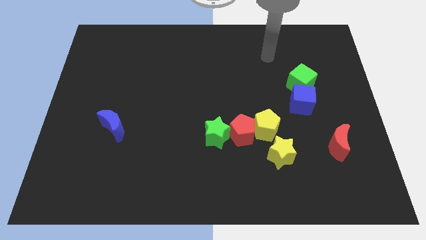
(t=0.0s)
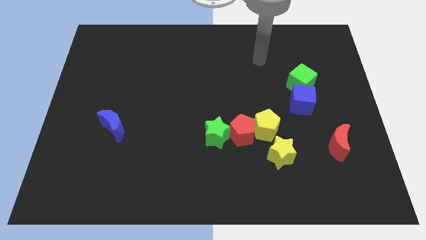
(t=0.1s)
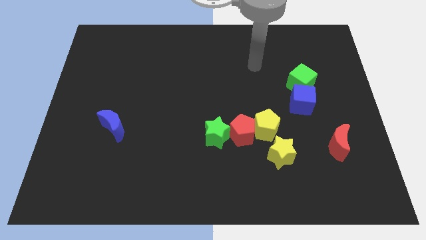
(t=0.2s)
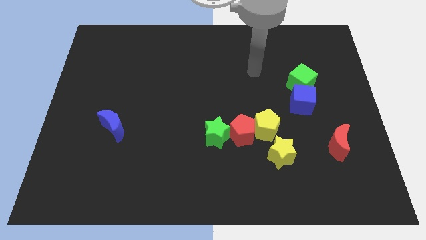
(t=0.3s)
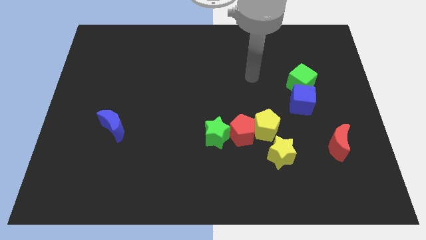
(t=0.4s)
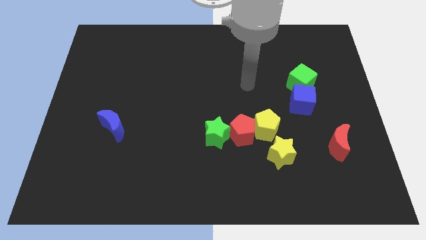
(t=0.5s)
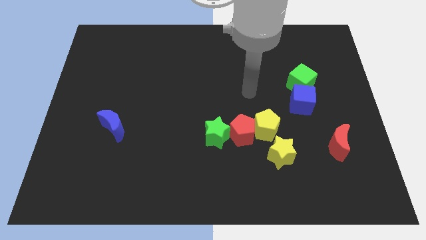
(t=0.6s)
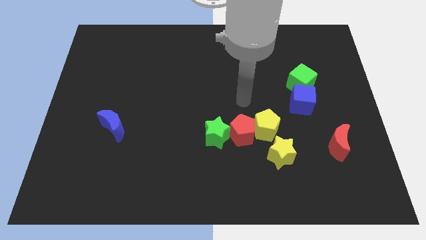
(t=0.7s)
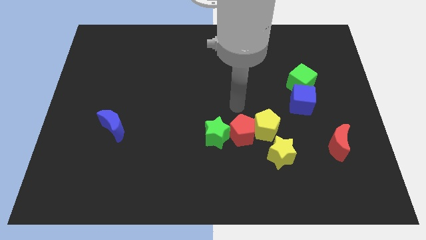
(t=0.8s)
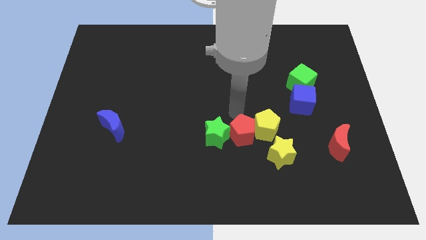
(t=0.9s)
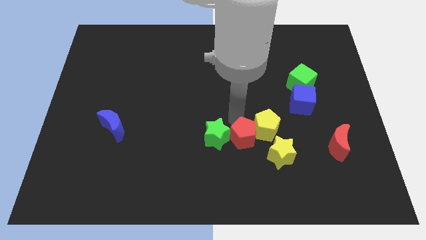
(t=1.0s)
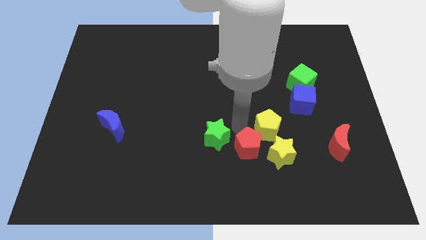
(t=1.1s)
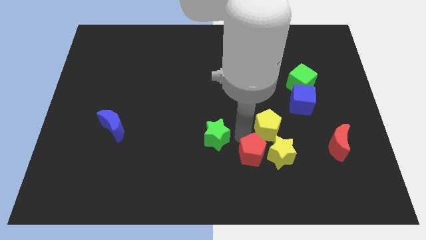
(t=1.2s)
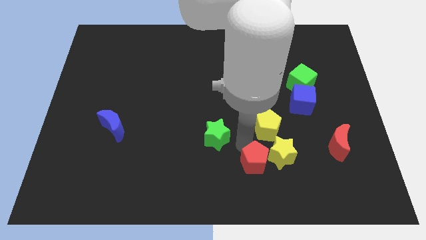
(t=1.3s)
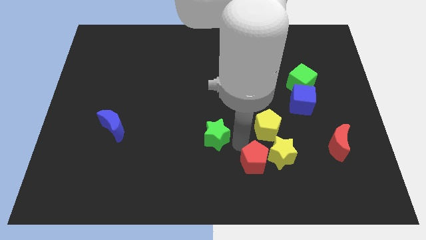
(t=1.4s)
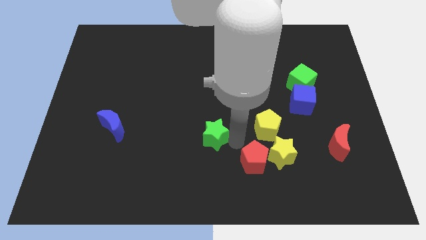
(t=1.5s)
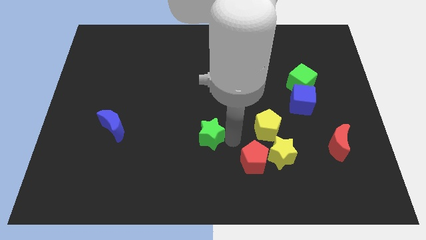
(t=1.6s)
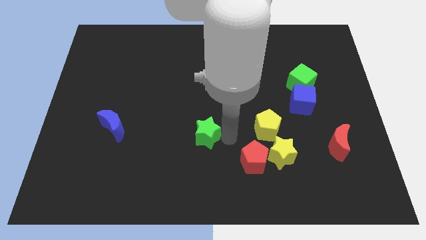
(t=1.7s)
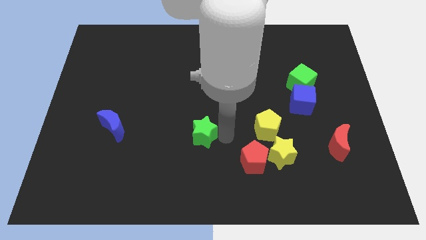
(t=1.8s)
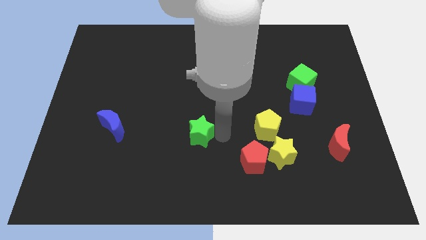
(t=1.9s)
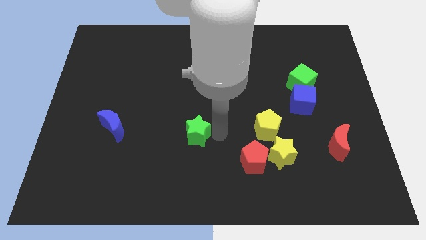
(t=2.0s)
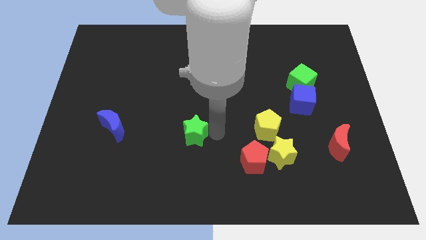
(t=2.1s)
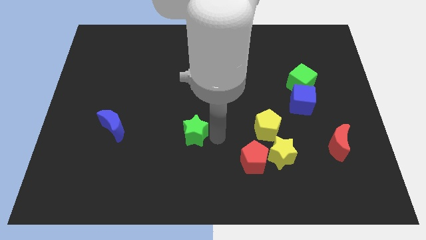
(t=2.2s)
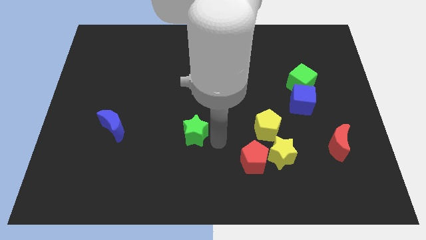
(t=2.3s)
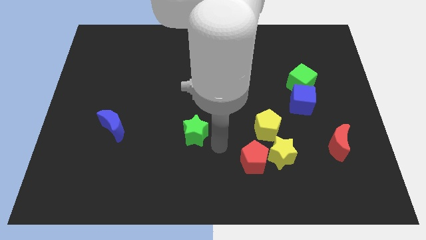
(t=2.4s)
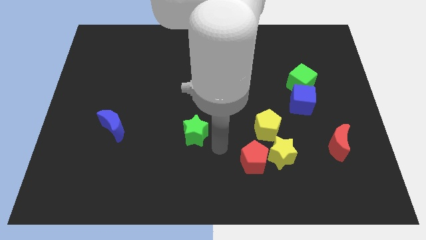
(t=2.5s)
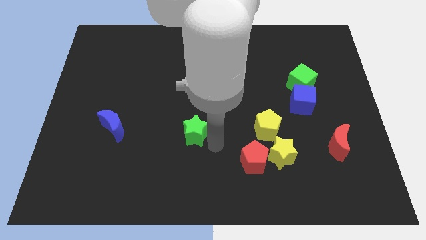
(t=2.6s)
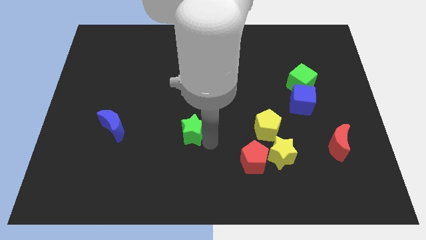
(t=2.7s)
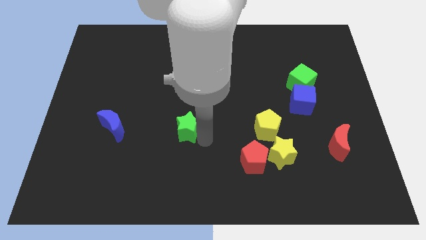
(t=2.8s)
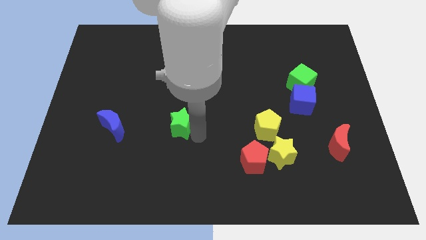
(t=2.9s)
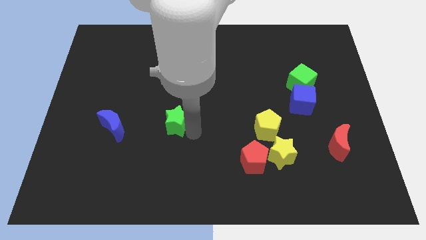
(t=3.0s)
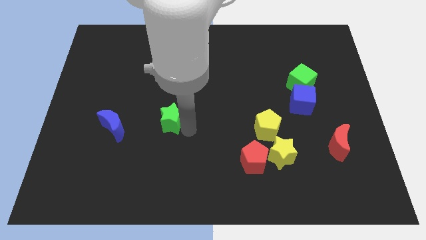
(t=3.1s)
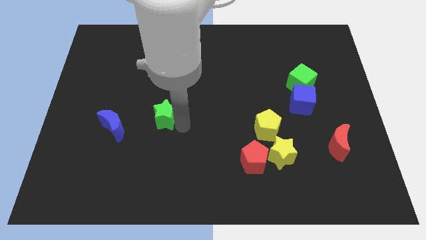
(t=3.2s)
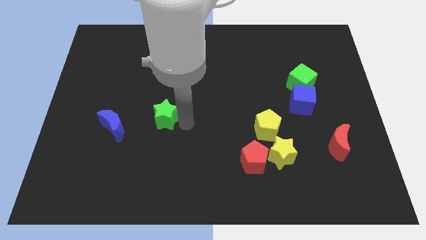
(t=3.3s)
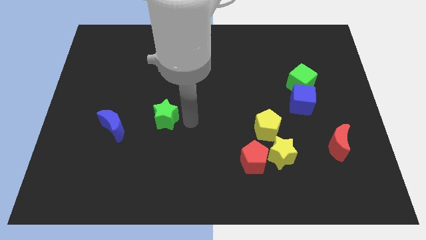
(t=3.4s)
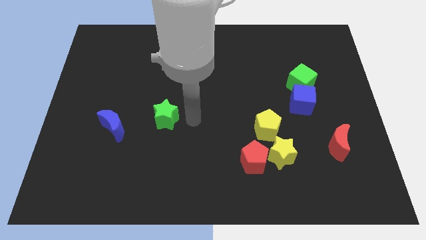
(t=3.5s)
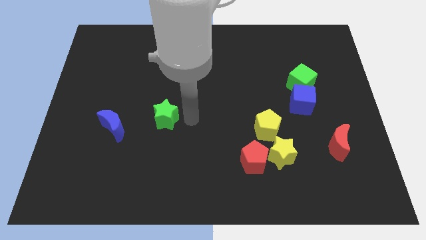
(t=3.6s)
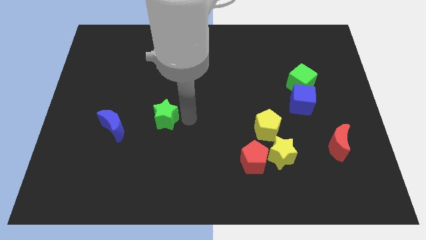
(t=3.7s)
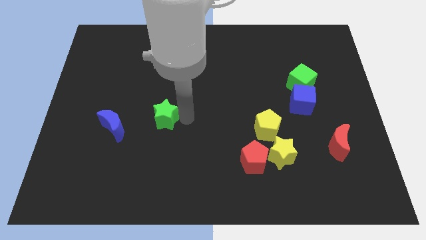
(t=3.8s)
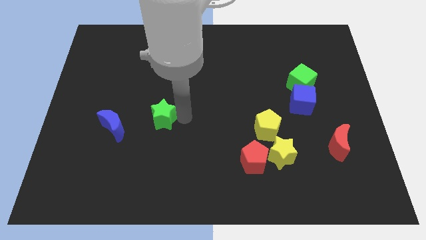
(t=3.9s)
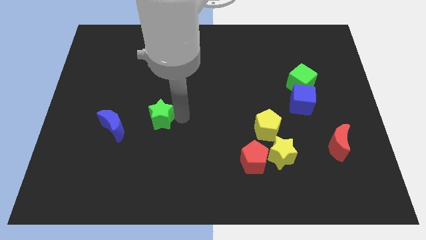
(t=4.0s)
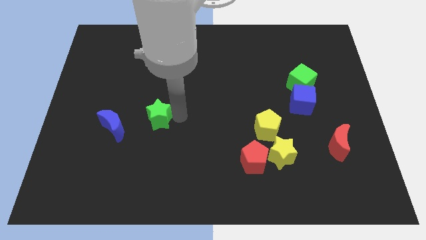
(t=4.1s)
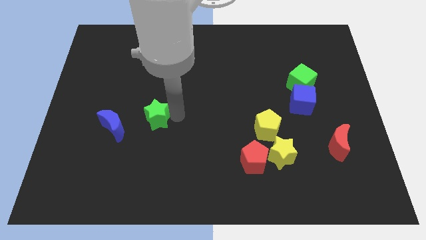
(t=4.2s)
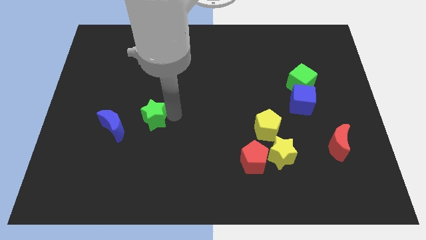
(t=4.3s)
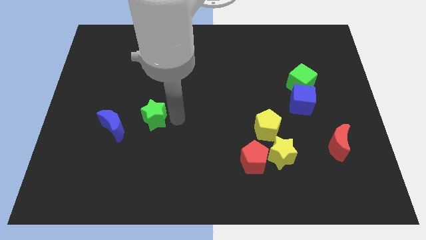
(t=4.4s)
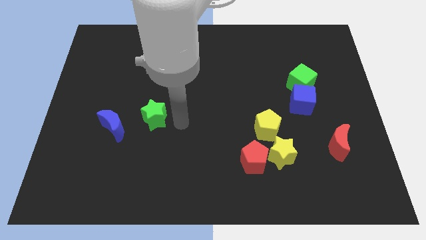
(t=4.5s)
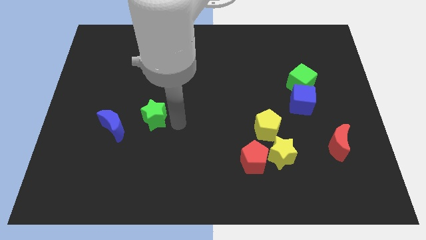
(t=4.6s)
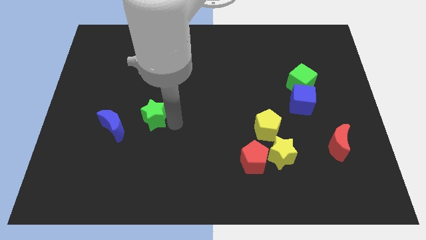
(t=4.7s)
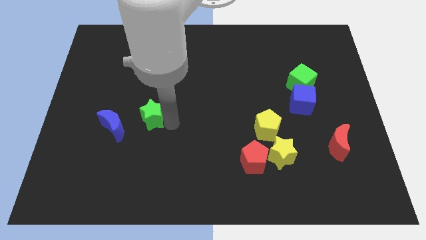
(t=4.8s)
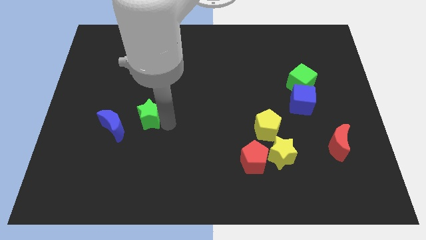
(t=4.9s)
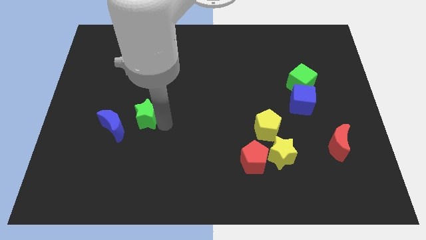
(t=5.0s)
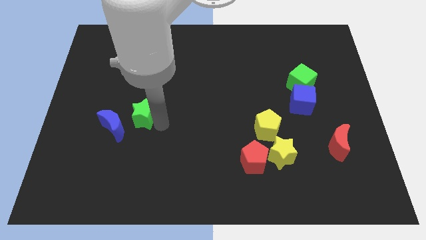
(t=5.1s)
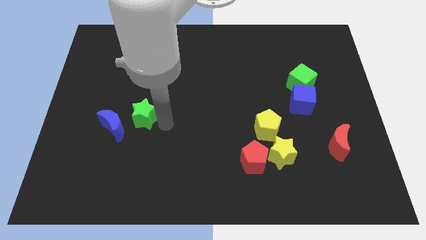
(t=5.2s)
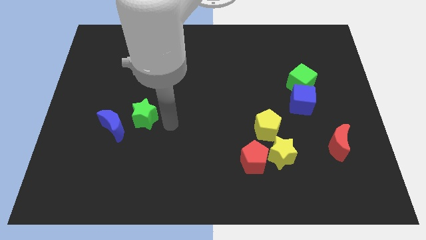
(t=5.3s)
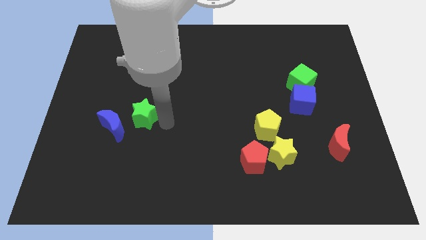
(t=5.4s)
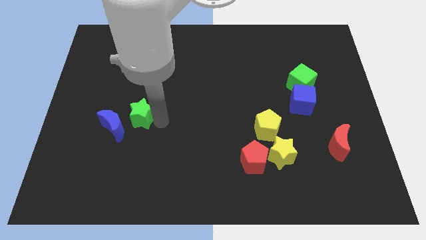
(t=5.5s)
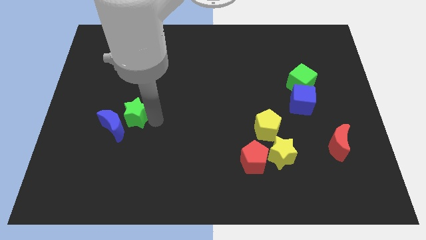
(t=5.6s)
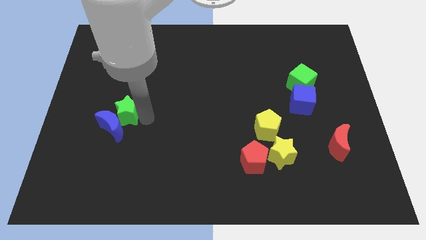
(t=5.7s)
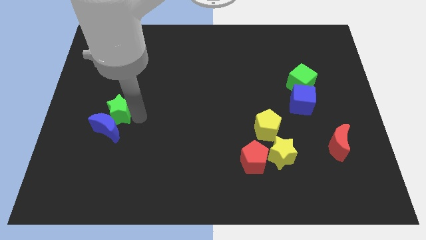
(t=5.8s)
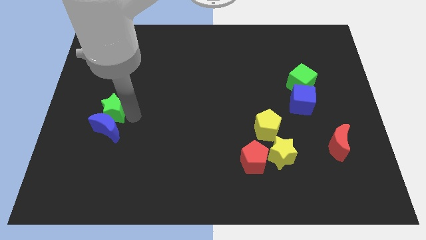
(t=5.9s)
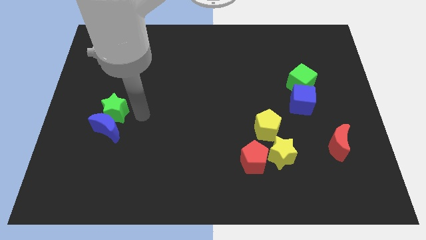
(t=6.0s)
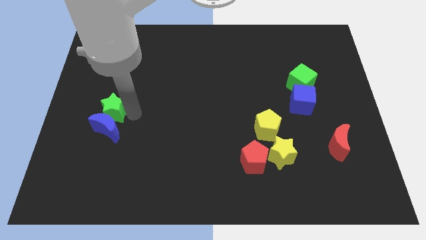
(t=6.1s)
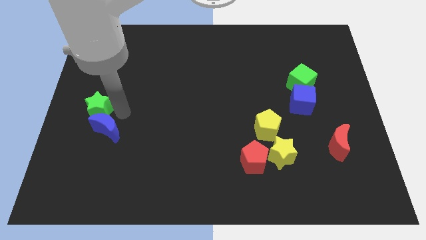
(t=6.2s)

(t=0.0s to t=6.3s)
push the green star to the center left

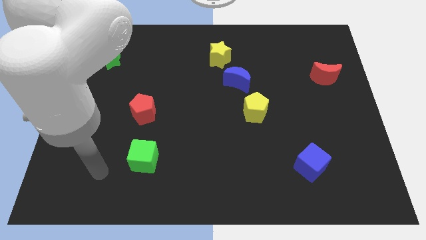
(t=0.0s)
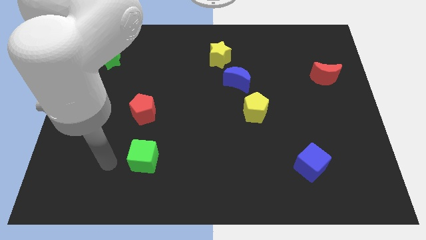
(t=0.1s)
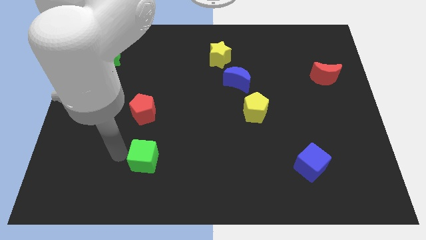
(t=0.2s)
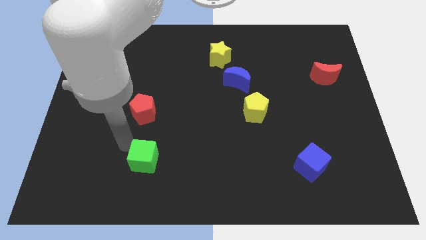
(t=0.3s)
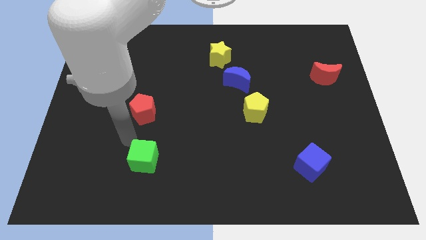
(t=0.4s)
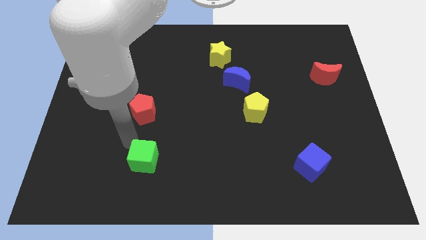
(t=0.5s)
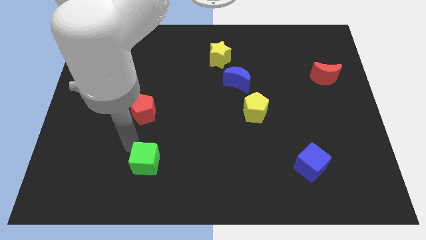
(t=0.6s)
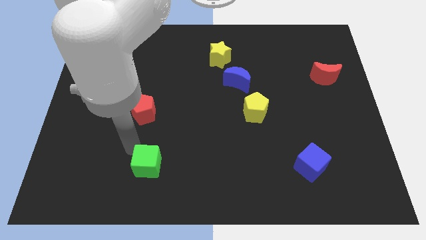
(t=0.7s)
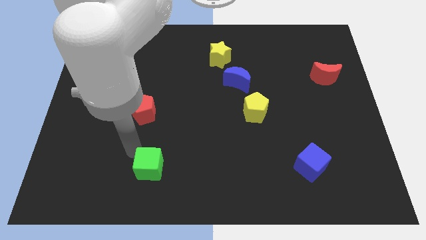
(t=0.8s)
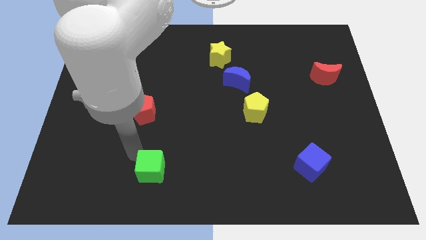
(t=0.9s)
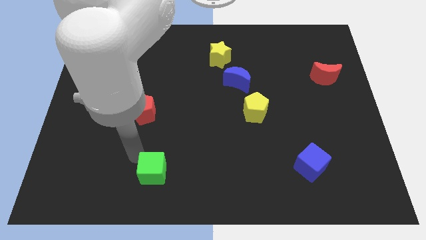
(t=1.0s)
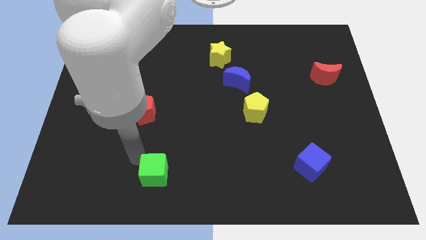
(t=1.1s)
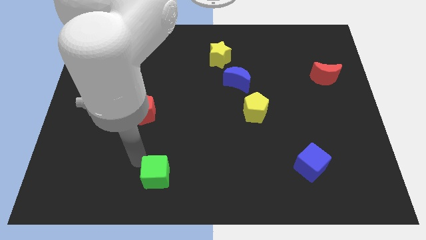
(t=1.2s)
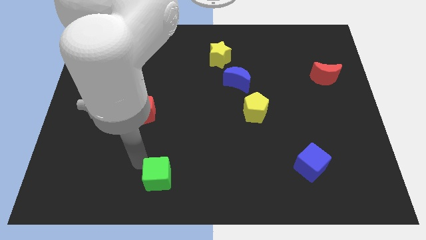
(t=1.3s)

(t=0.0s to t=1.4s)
push the green cube to the bottom
